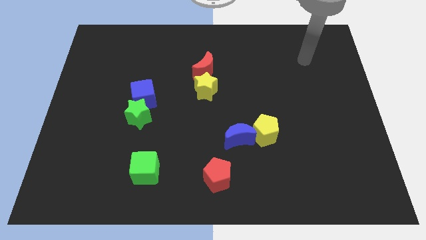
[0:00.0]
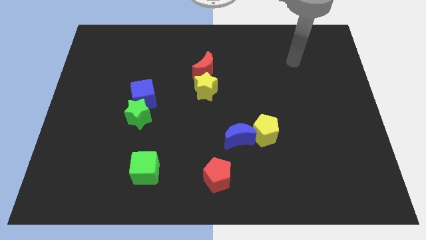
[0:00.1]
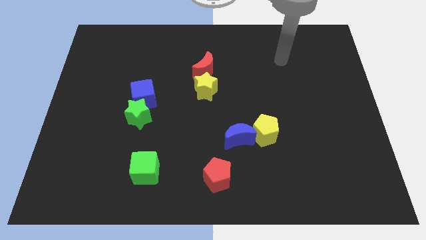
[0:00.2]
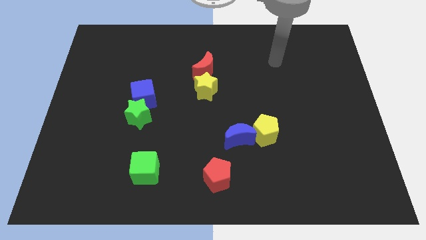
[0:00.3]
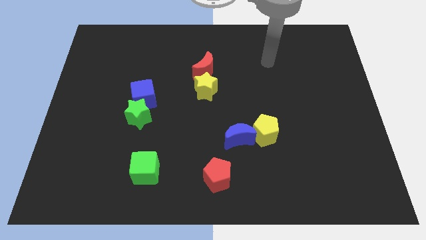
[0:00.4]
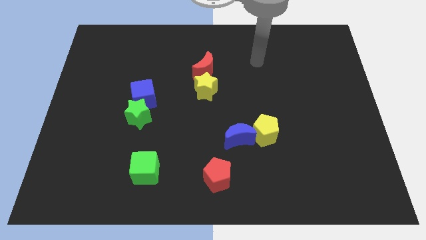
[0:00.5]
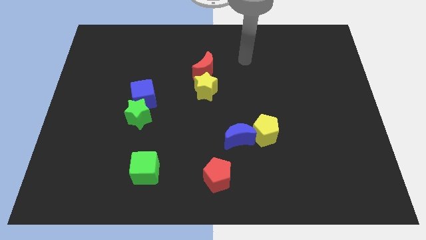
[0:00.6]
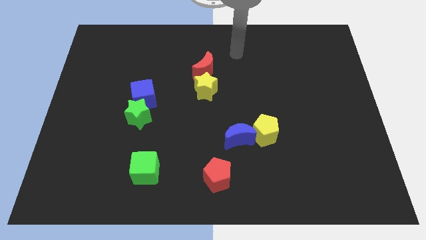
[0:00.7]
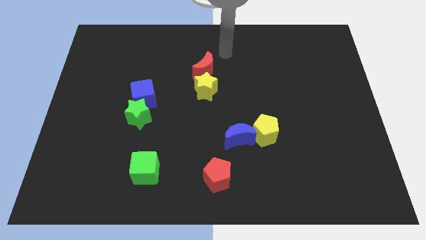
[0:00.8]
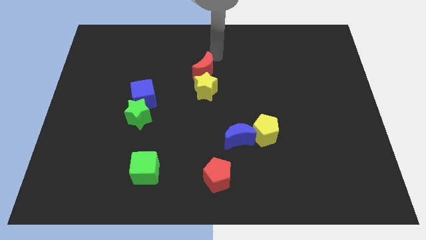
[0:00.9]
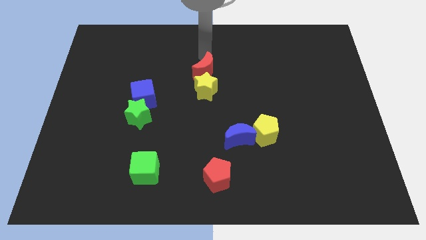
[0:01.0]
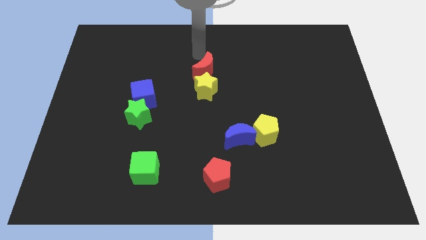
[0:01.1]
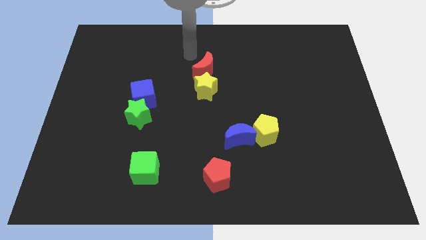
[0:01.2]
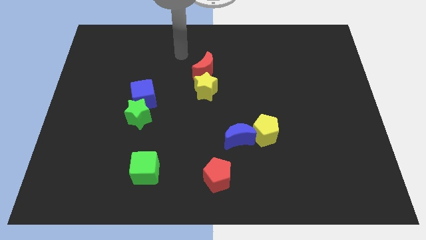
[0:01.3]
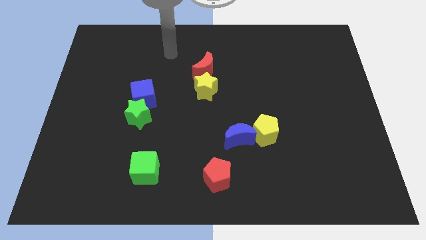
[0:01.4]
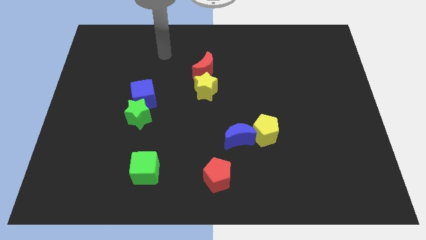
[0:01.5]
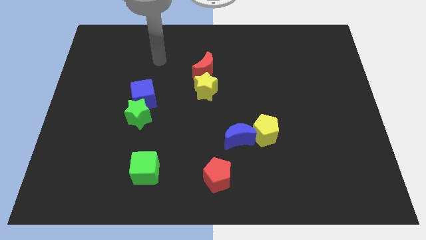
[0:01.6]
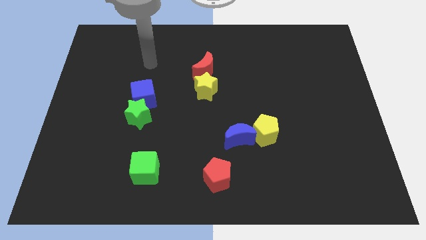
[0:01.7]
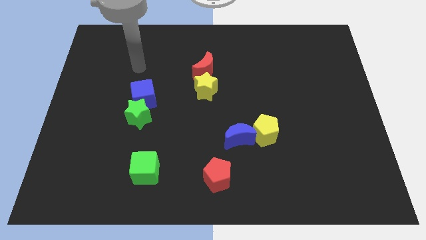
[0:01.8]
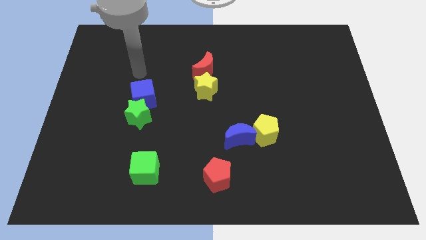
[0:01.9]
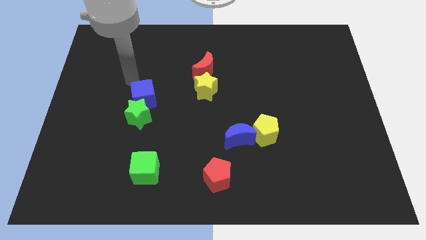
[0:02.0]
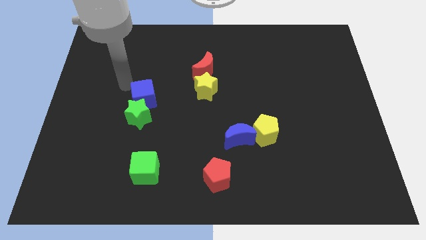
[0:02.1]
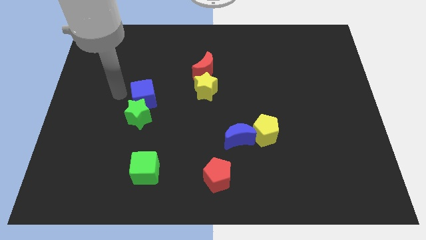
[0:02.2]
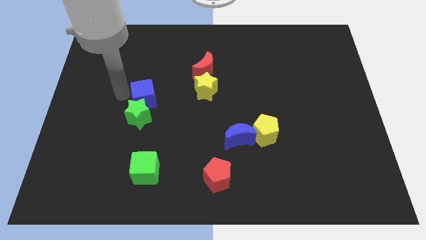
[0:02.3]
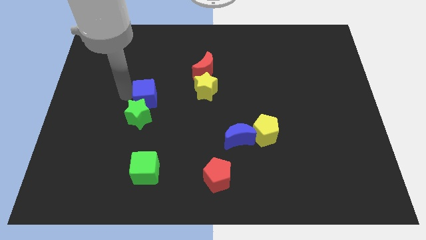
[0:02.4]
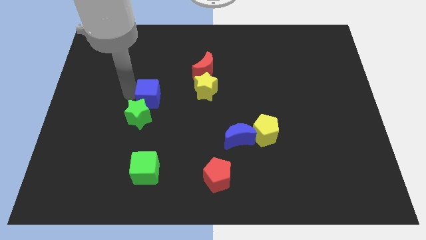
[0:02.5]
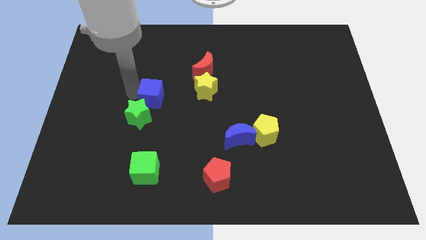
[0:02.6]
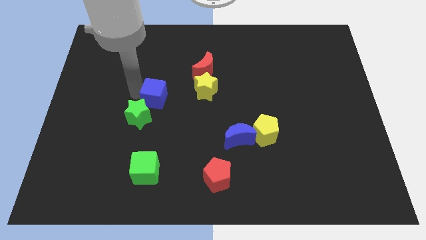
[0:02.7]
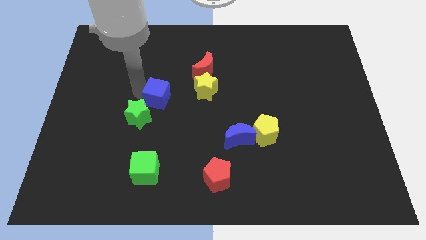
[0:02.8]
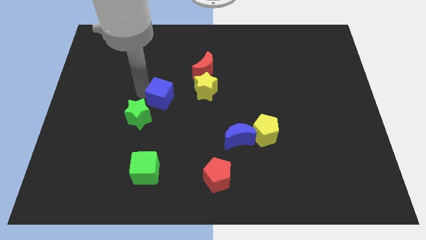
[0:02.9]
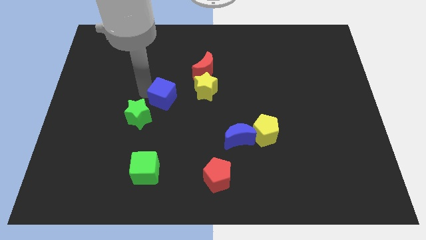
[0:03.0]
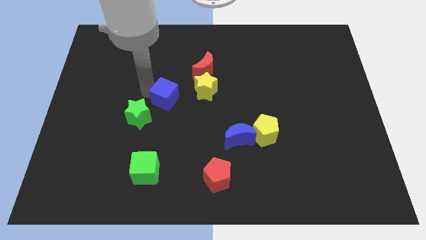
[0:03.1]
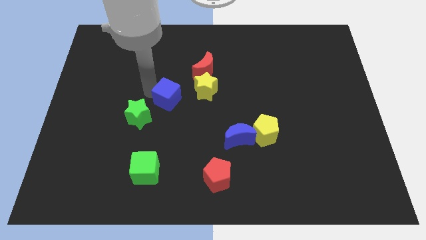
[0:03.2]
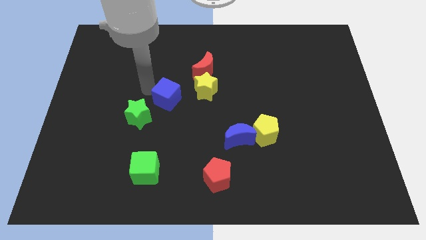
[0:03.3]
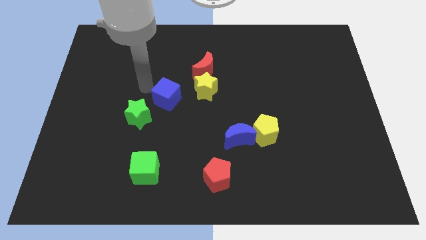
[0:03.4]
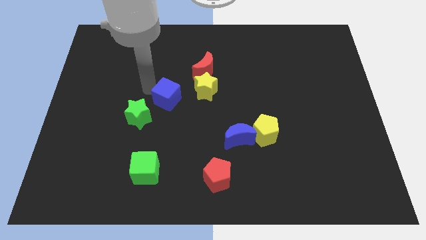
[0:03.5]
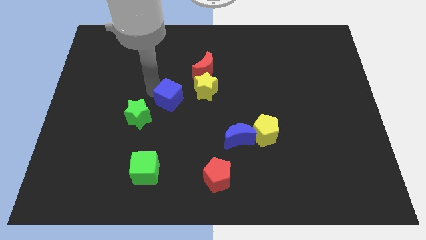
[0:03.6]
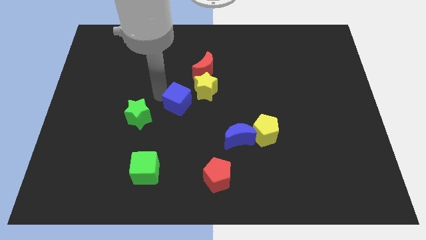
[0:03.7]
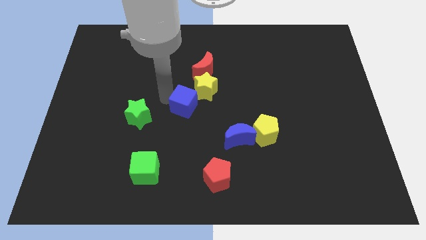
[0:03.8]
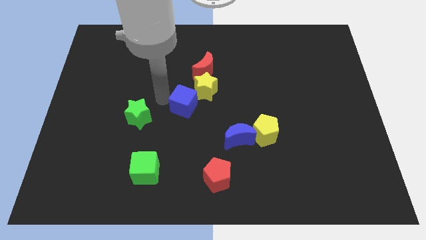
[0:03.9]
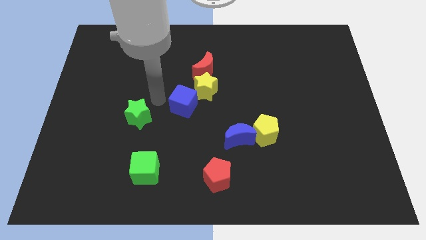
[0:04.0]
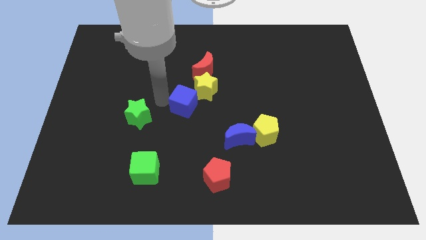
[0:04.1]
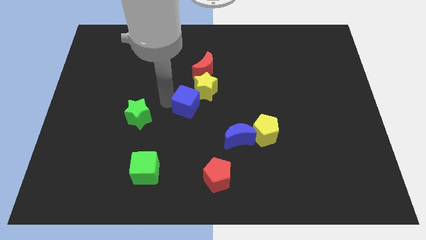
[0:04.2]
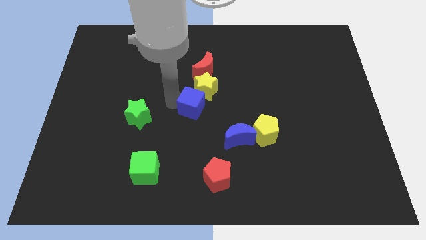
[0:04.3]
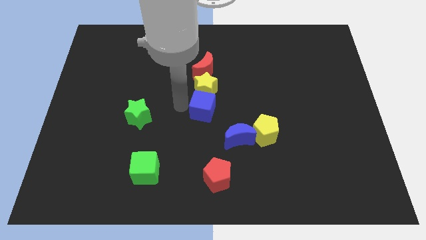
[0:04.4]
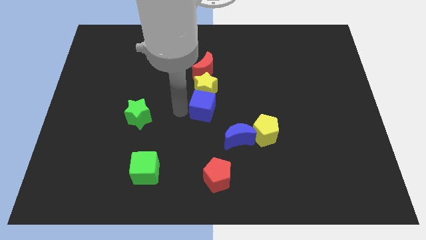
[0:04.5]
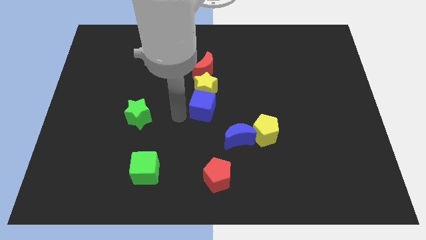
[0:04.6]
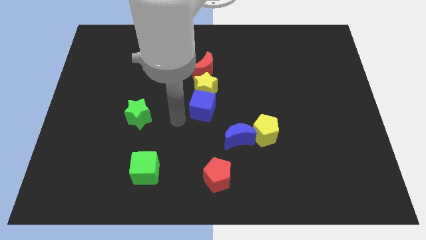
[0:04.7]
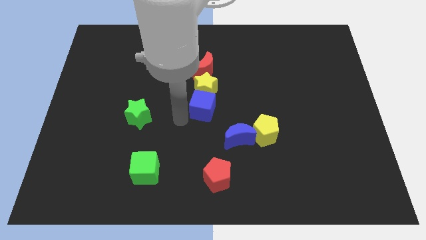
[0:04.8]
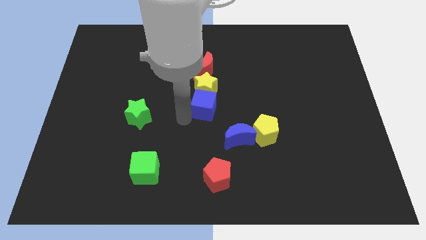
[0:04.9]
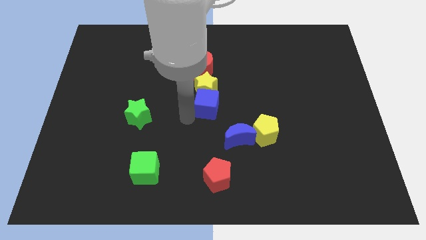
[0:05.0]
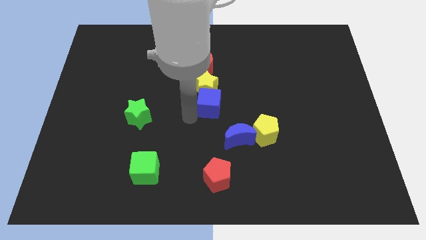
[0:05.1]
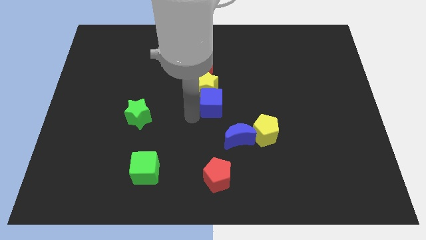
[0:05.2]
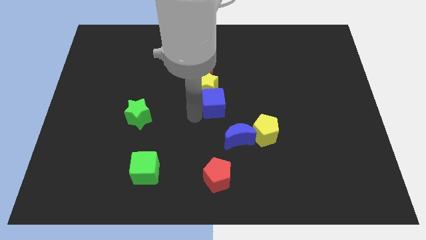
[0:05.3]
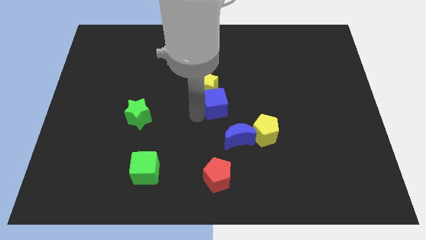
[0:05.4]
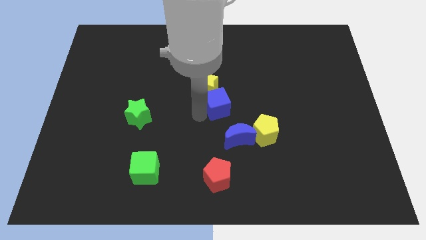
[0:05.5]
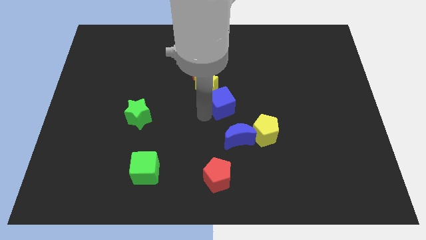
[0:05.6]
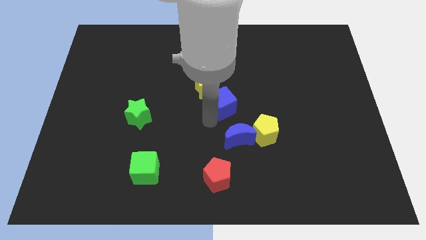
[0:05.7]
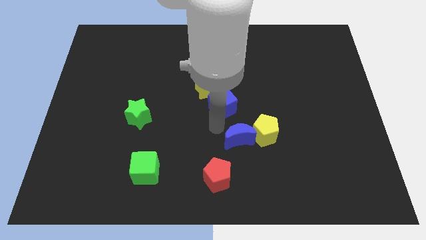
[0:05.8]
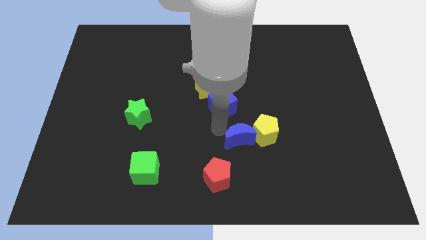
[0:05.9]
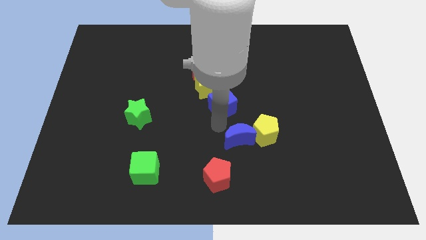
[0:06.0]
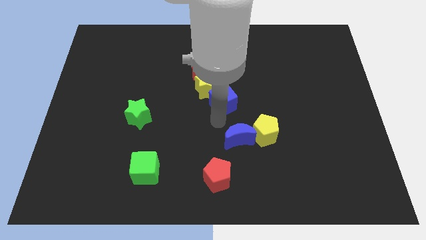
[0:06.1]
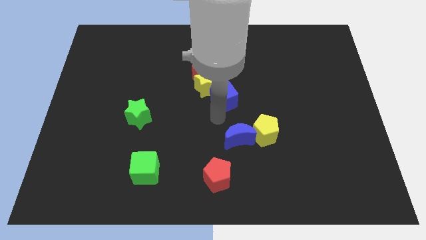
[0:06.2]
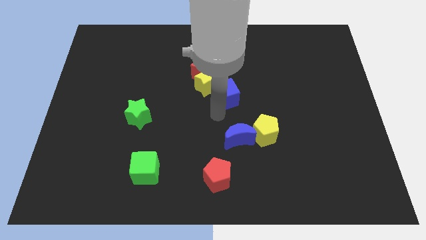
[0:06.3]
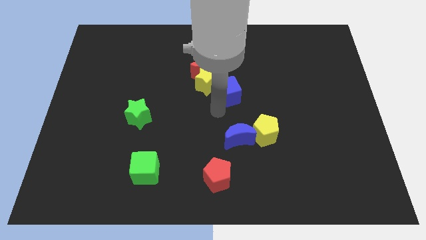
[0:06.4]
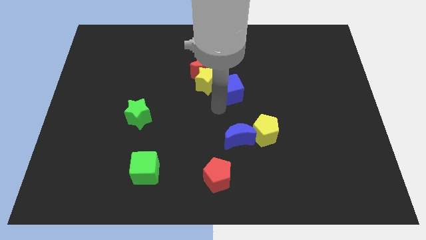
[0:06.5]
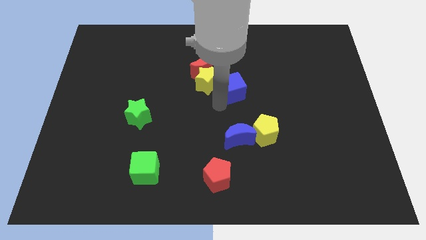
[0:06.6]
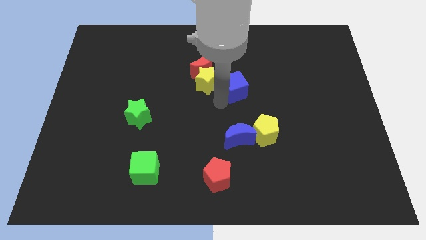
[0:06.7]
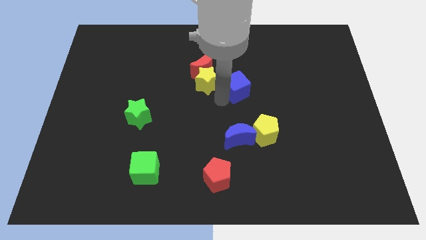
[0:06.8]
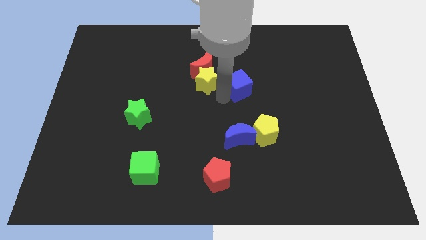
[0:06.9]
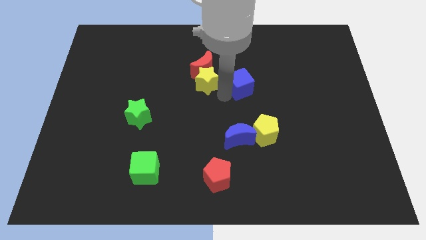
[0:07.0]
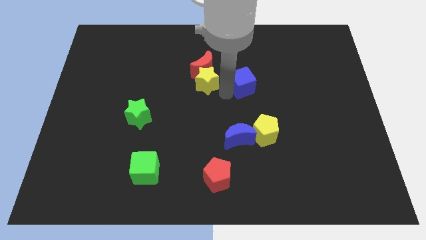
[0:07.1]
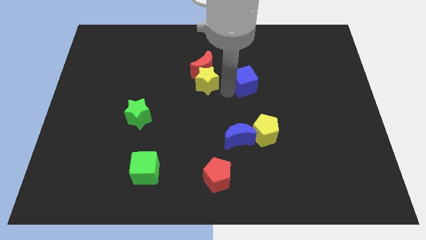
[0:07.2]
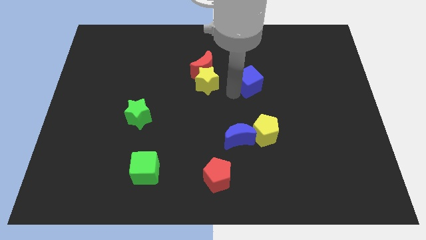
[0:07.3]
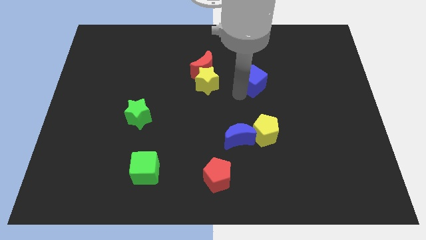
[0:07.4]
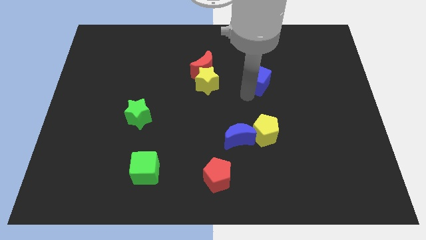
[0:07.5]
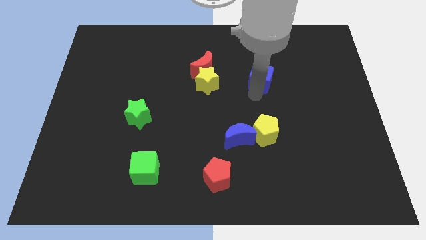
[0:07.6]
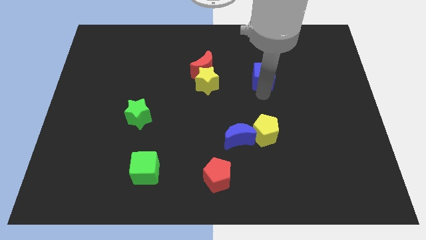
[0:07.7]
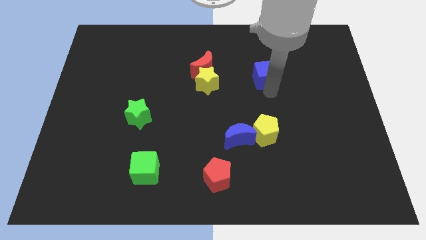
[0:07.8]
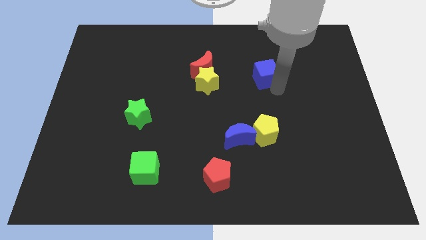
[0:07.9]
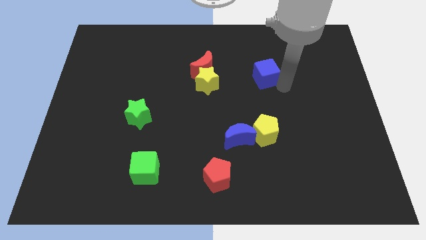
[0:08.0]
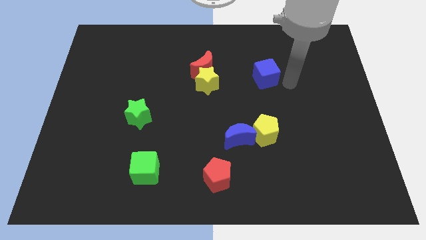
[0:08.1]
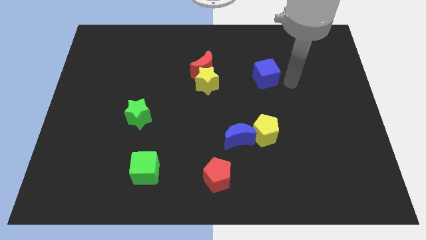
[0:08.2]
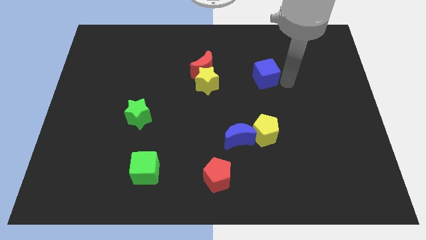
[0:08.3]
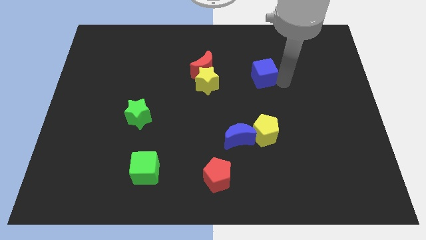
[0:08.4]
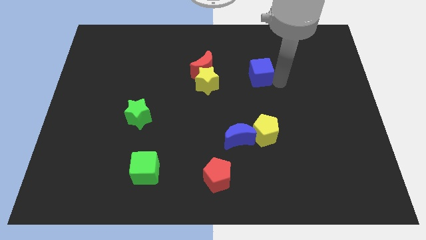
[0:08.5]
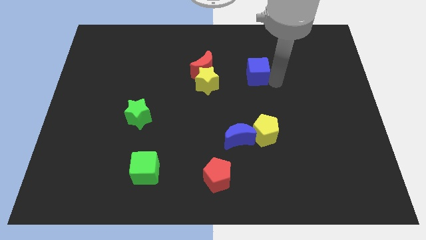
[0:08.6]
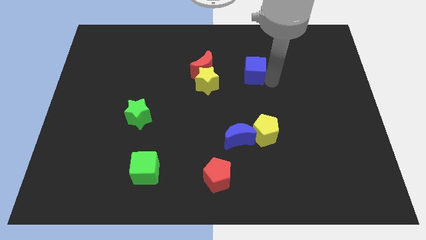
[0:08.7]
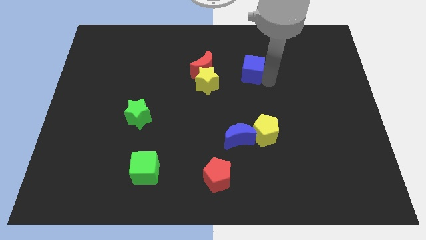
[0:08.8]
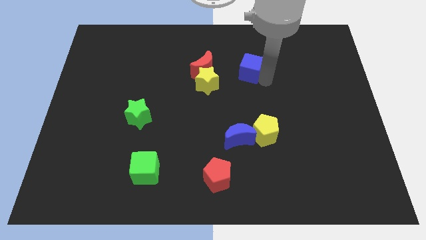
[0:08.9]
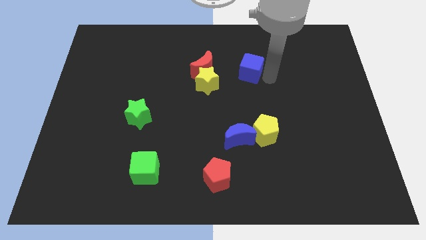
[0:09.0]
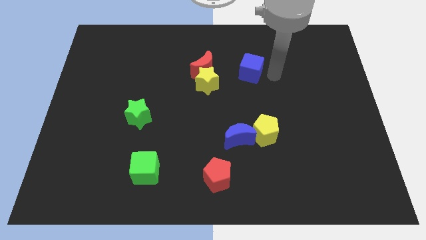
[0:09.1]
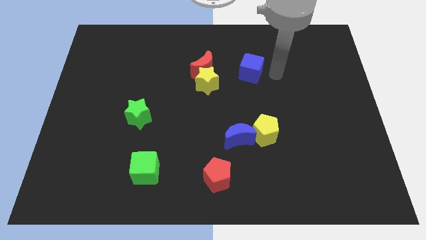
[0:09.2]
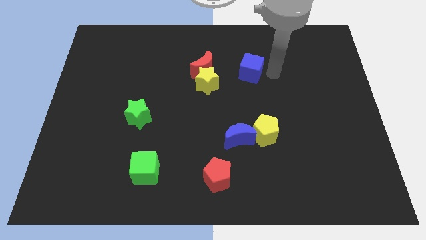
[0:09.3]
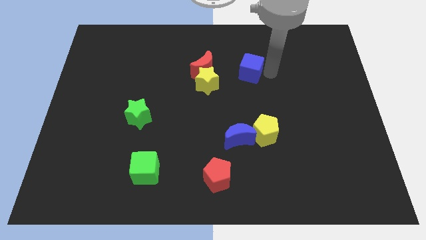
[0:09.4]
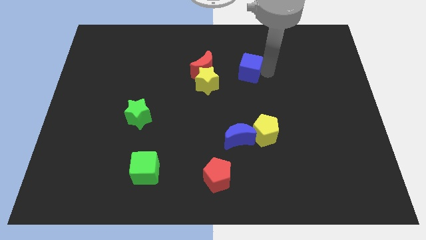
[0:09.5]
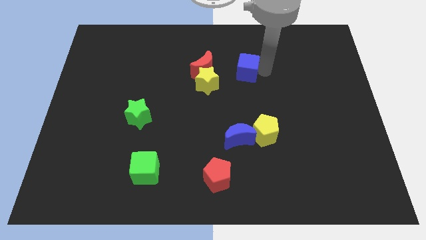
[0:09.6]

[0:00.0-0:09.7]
put the blue cube to the top right side of the yellow star
